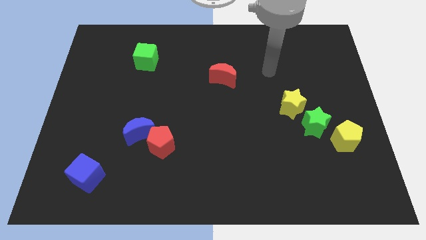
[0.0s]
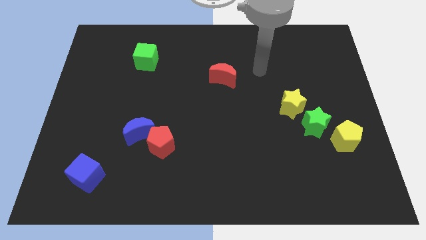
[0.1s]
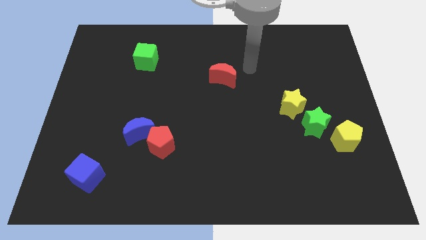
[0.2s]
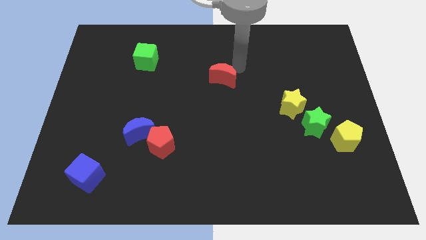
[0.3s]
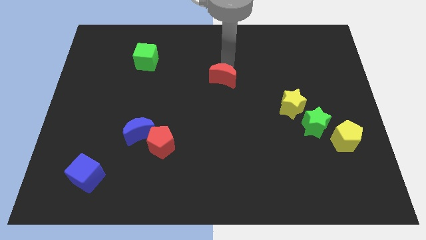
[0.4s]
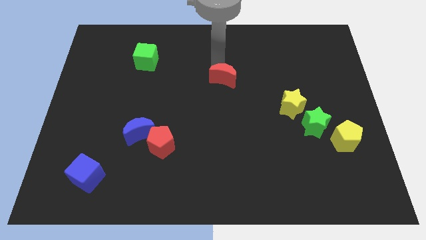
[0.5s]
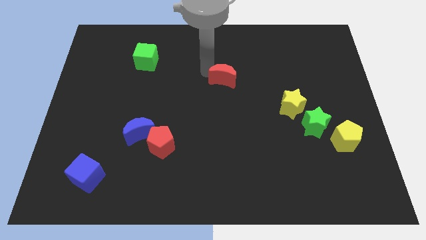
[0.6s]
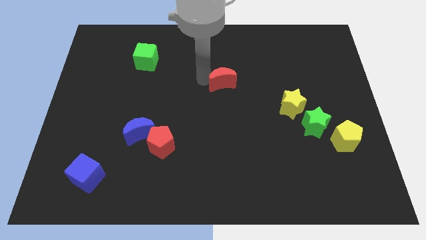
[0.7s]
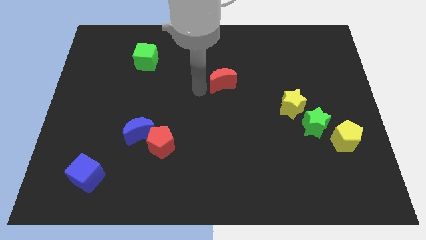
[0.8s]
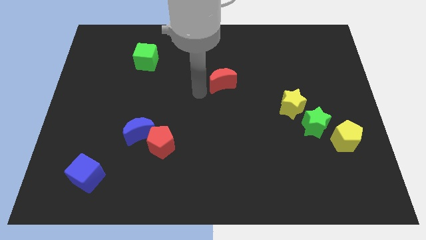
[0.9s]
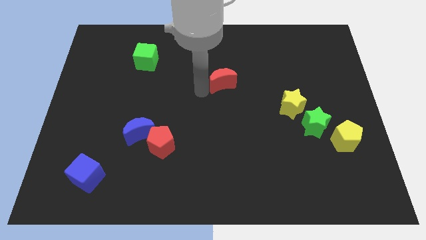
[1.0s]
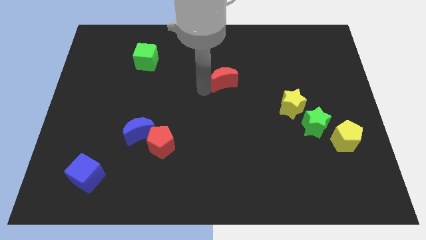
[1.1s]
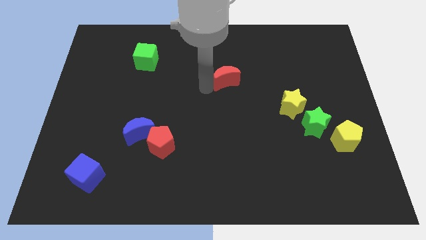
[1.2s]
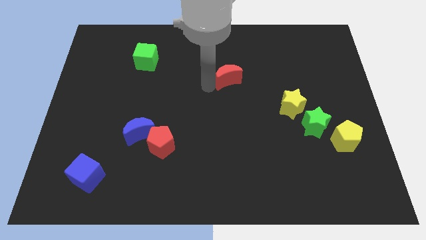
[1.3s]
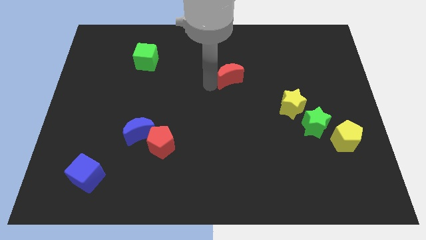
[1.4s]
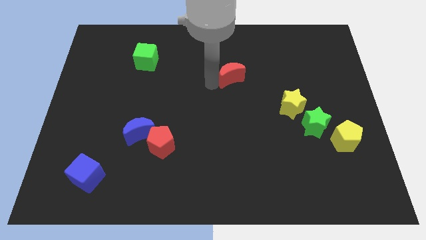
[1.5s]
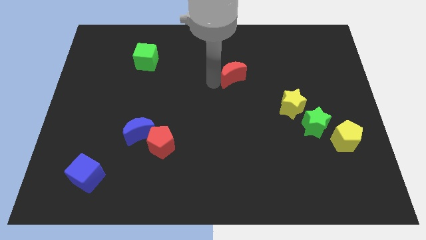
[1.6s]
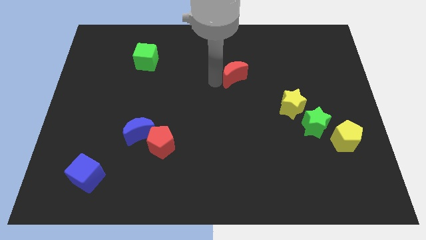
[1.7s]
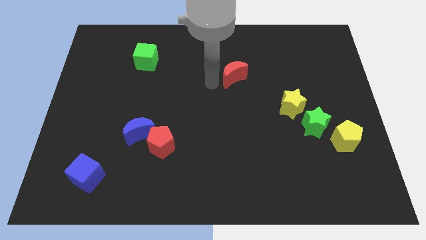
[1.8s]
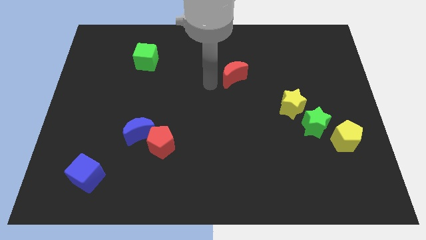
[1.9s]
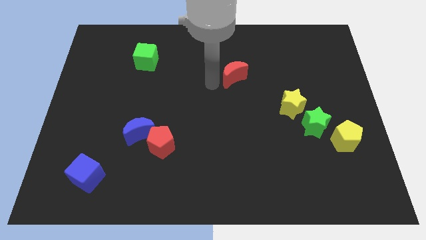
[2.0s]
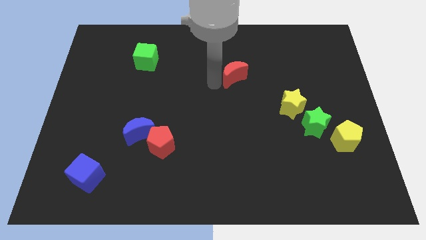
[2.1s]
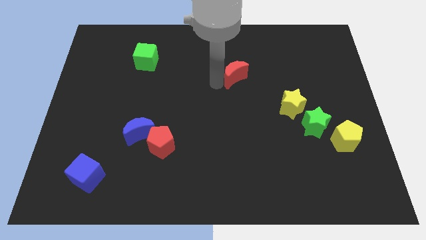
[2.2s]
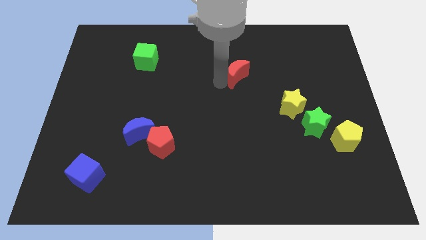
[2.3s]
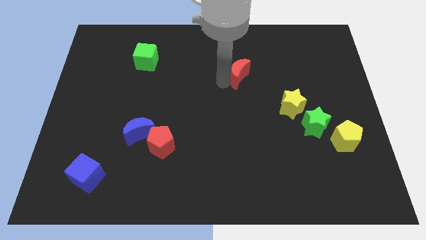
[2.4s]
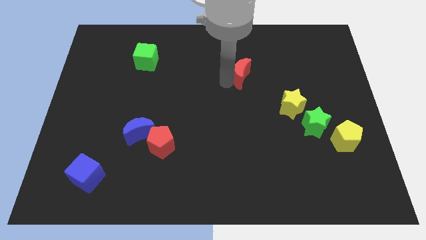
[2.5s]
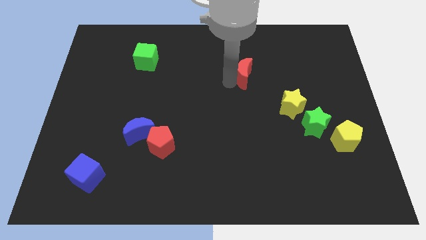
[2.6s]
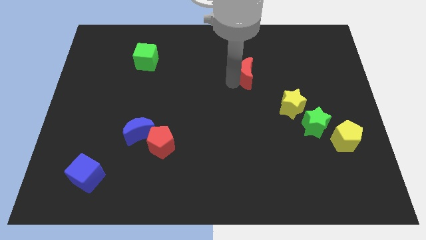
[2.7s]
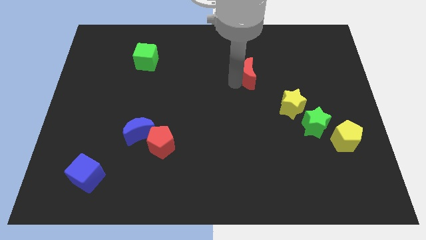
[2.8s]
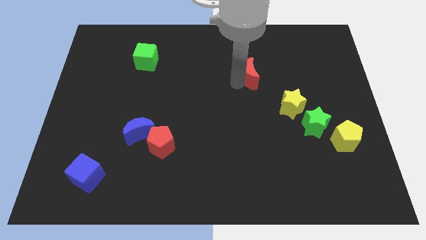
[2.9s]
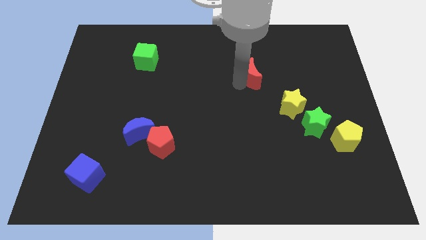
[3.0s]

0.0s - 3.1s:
move the red moon a bit to the right

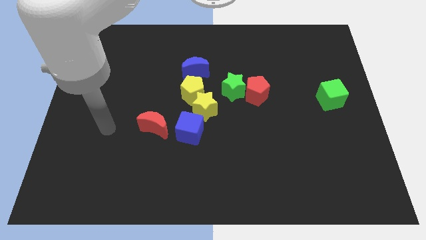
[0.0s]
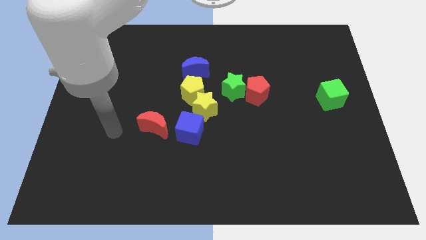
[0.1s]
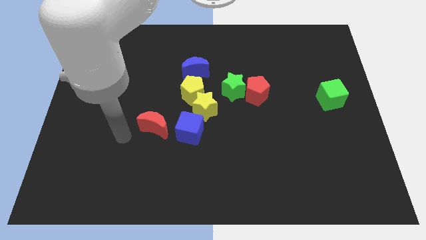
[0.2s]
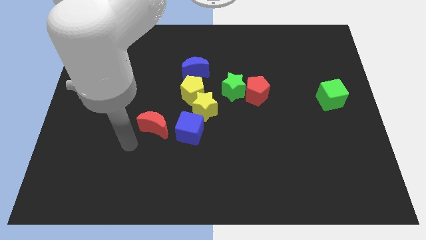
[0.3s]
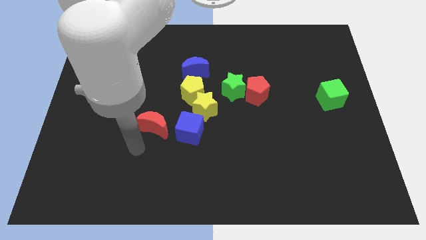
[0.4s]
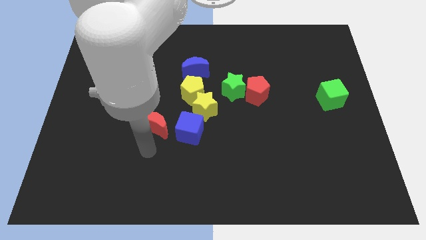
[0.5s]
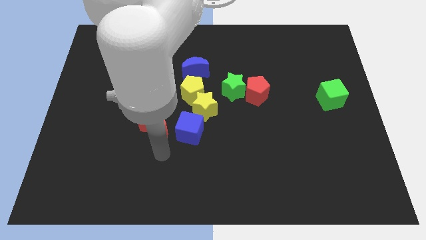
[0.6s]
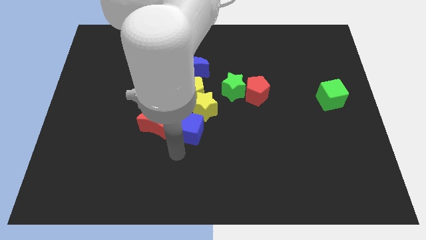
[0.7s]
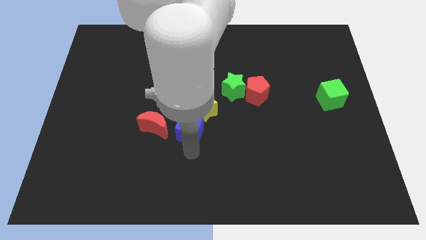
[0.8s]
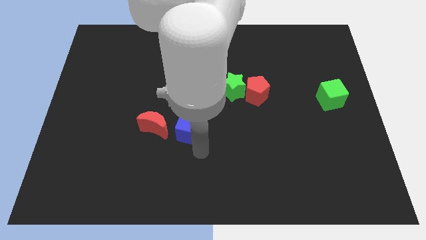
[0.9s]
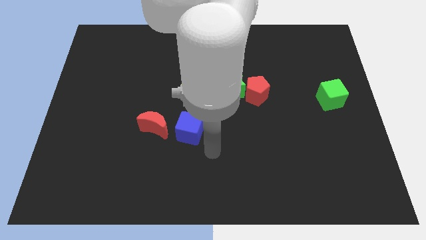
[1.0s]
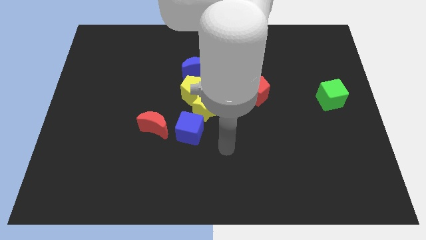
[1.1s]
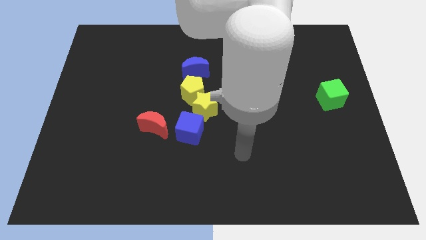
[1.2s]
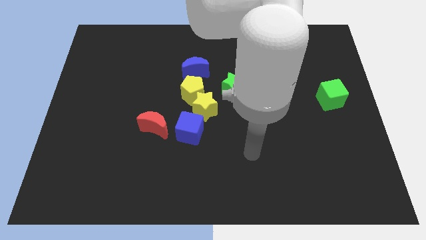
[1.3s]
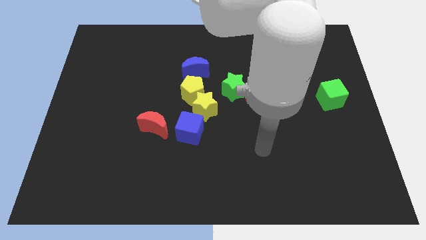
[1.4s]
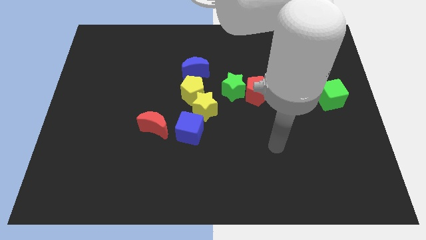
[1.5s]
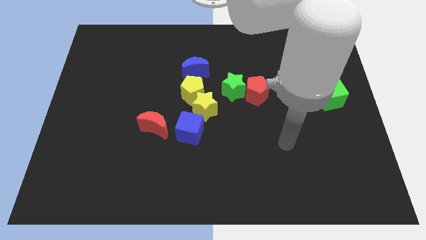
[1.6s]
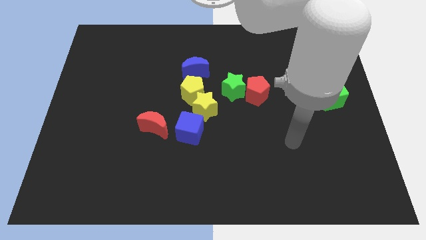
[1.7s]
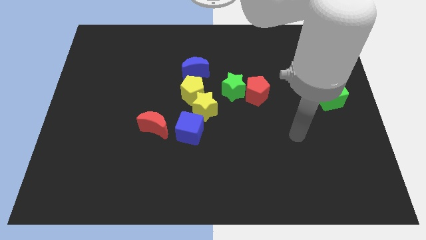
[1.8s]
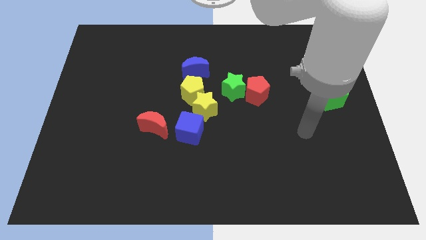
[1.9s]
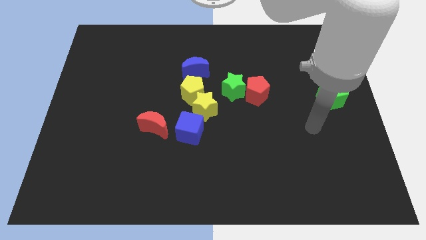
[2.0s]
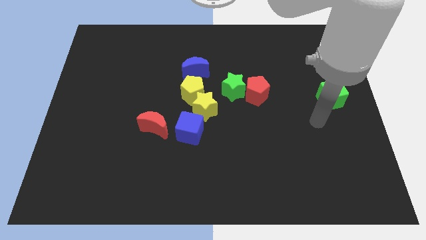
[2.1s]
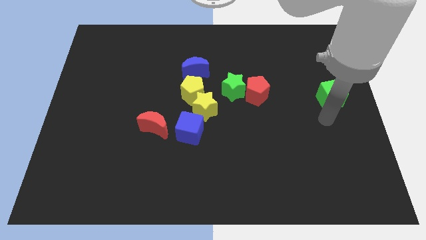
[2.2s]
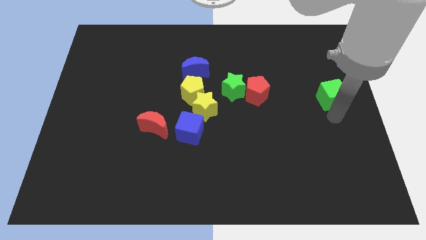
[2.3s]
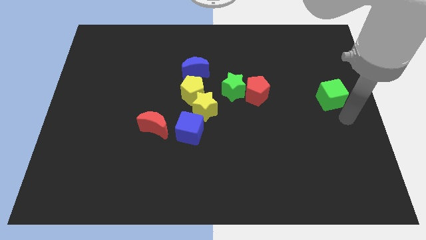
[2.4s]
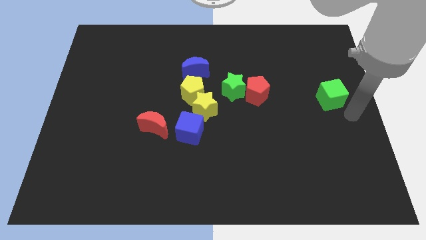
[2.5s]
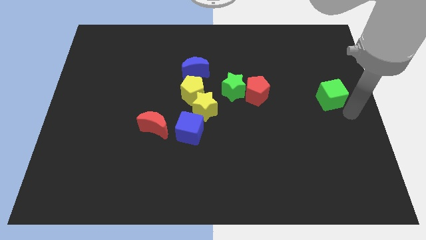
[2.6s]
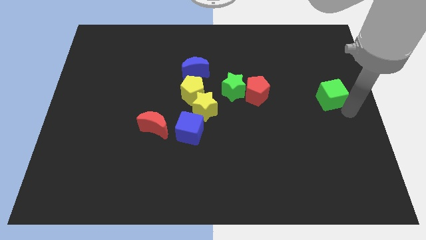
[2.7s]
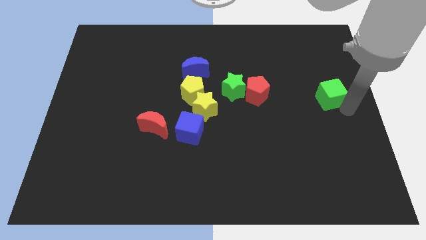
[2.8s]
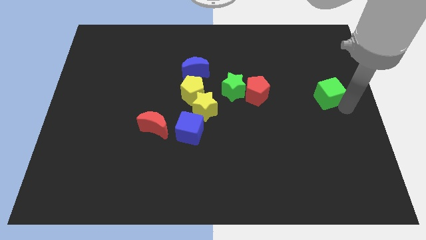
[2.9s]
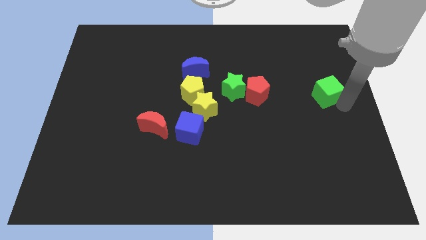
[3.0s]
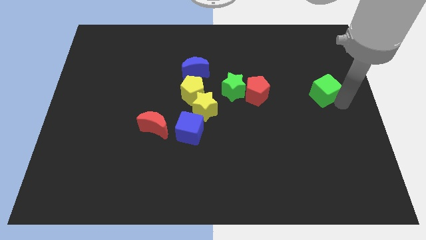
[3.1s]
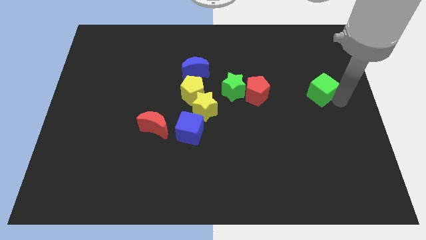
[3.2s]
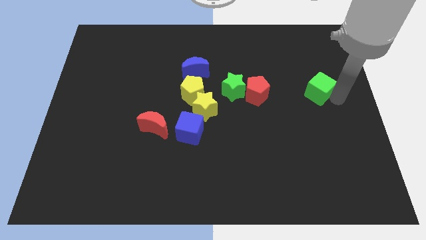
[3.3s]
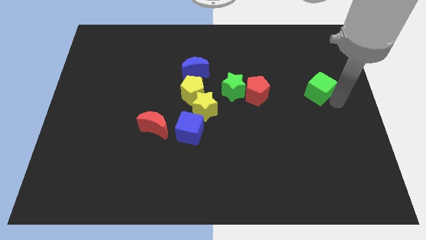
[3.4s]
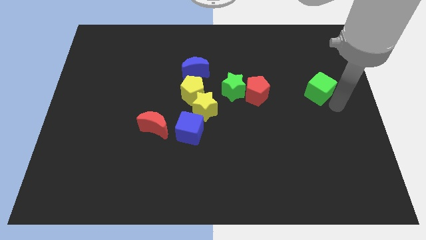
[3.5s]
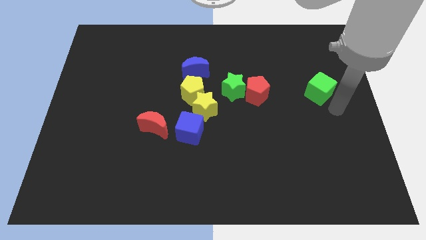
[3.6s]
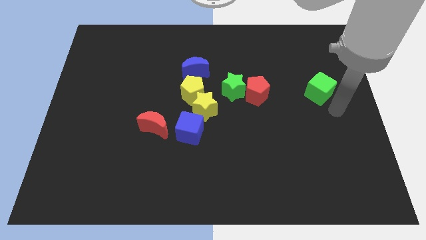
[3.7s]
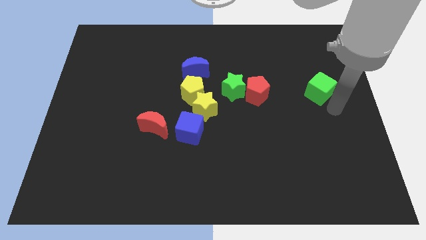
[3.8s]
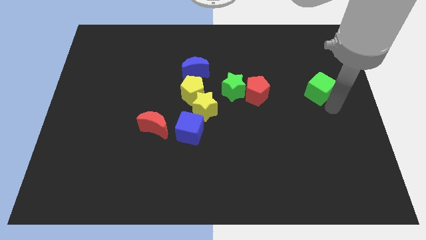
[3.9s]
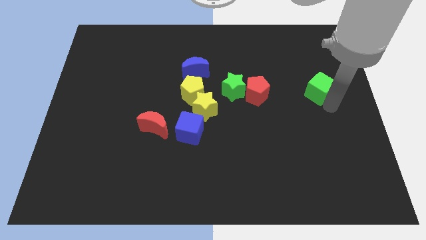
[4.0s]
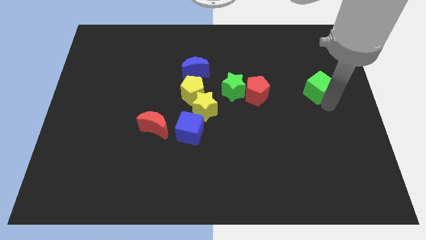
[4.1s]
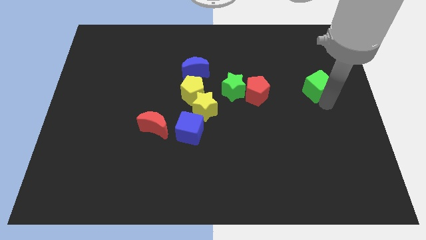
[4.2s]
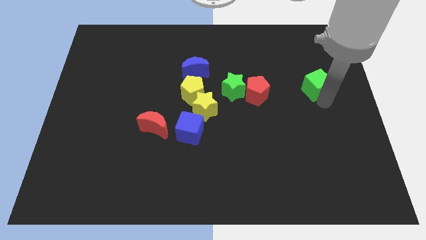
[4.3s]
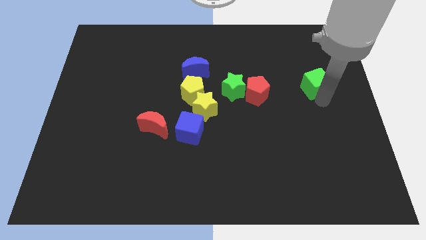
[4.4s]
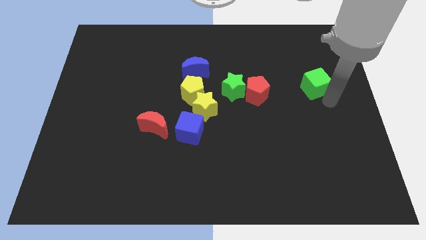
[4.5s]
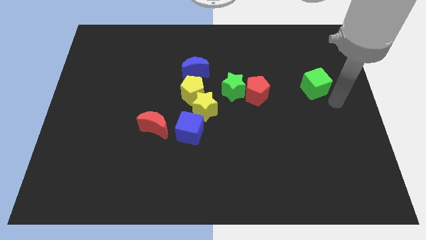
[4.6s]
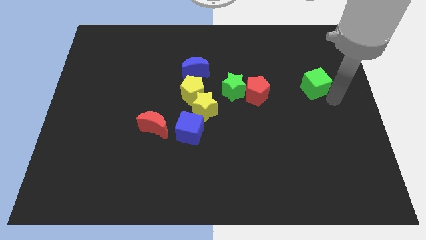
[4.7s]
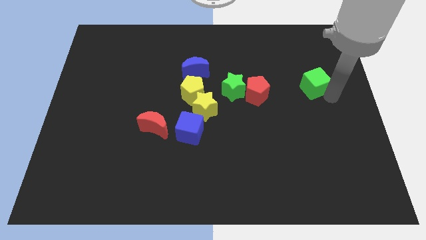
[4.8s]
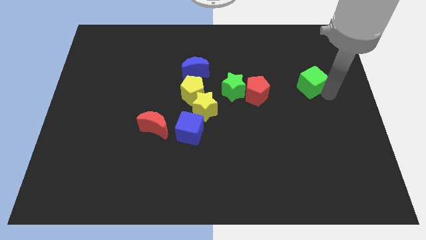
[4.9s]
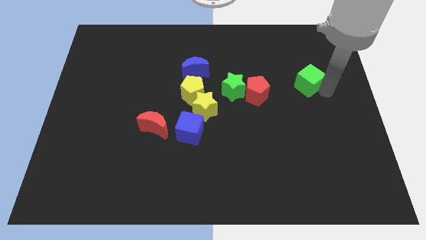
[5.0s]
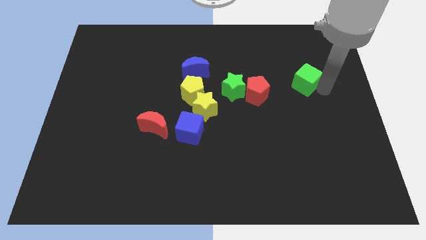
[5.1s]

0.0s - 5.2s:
slightly move the green cube up and left
